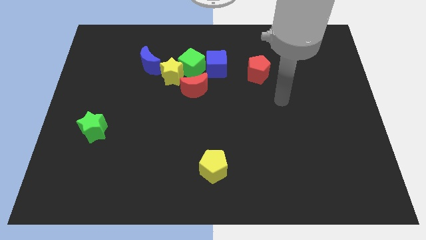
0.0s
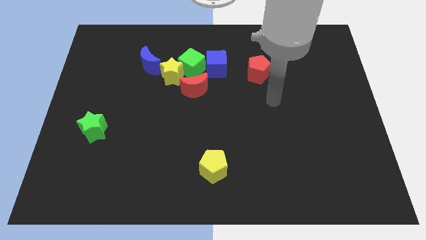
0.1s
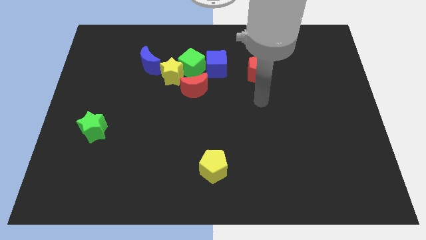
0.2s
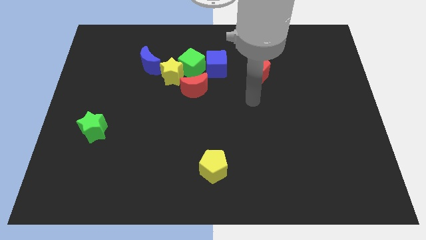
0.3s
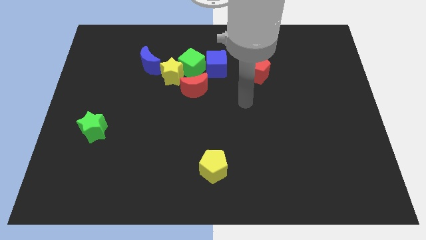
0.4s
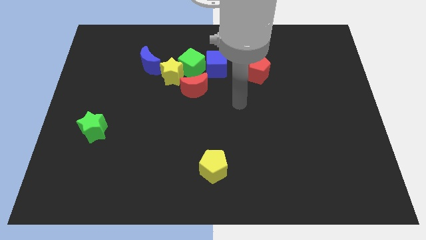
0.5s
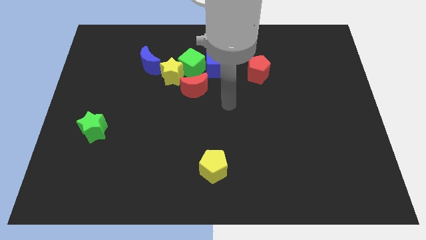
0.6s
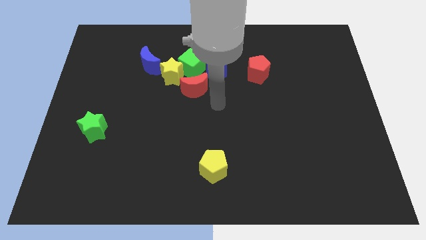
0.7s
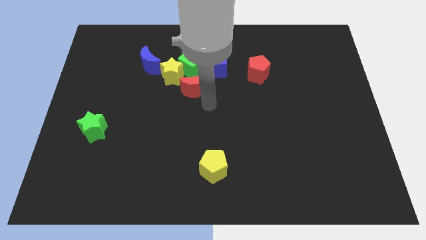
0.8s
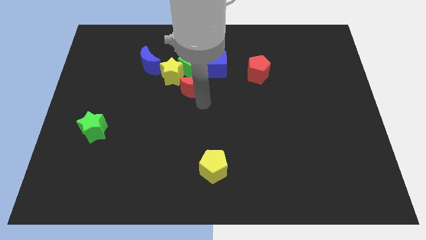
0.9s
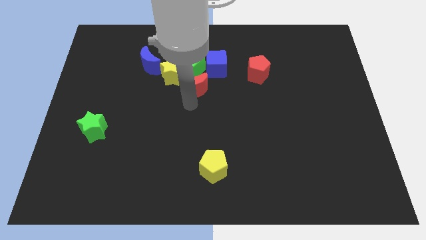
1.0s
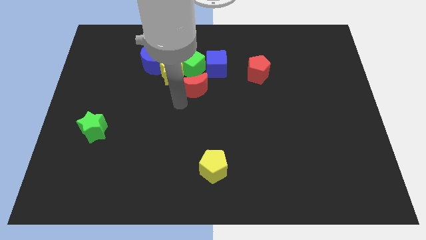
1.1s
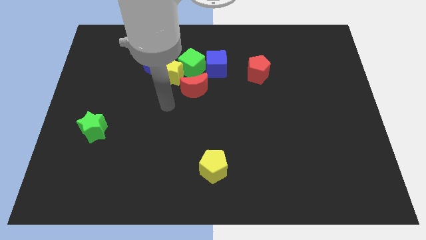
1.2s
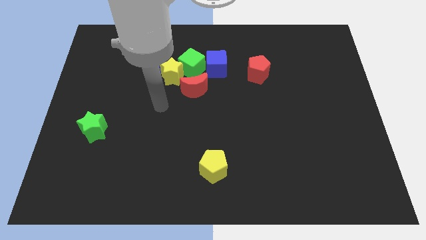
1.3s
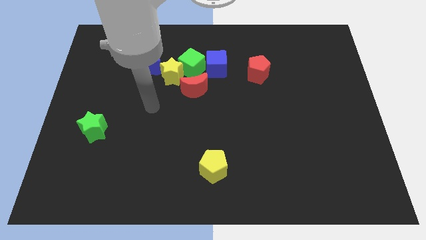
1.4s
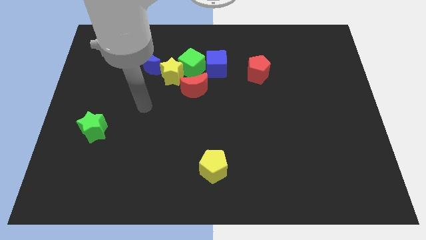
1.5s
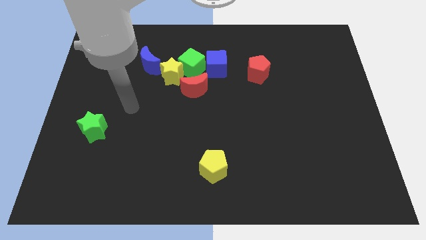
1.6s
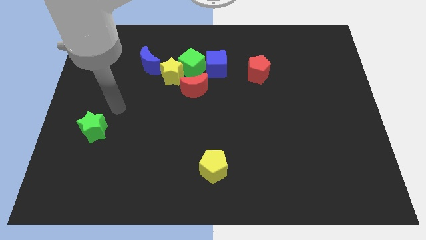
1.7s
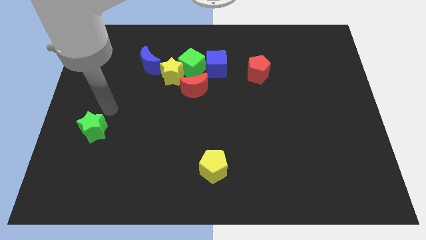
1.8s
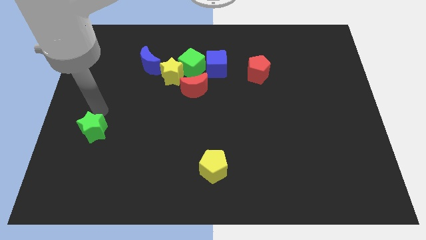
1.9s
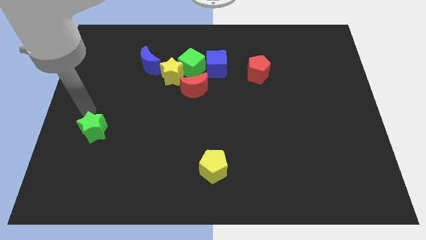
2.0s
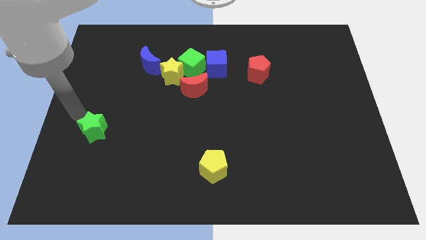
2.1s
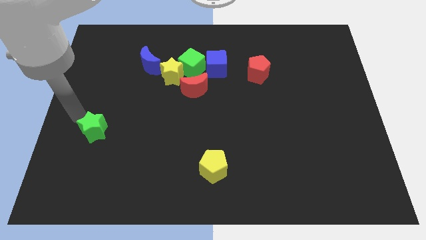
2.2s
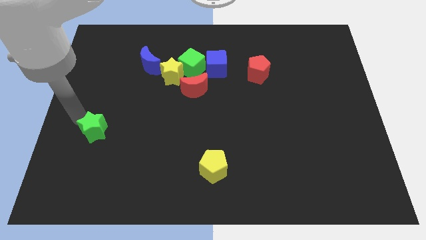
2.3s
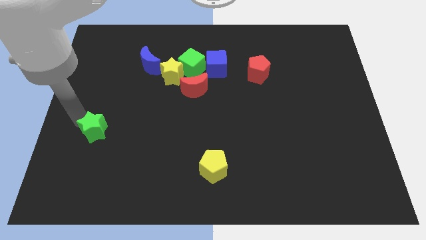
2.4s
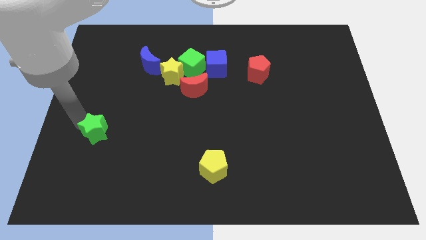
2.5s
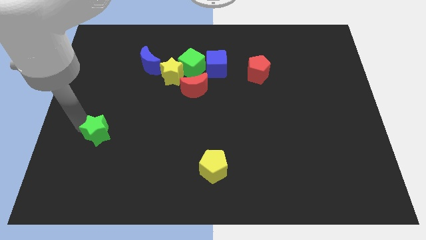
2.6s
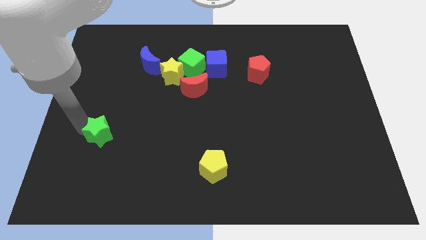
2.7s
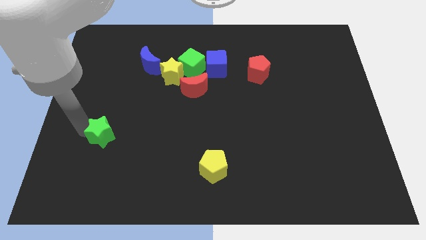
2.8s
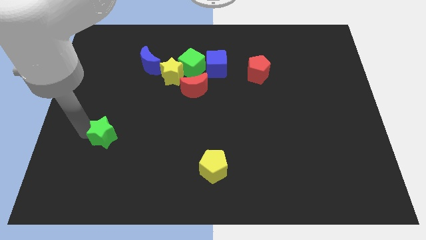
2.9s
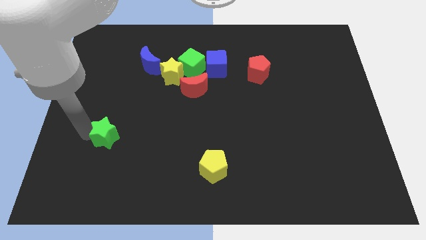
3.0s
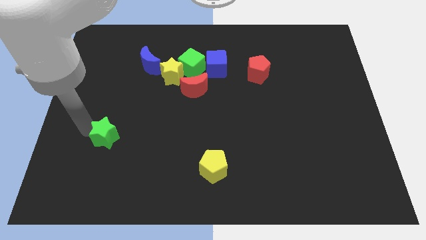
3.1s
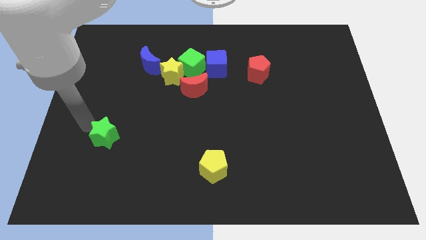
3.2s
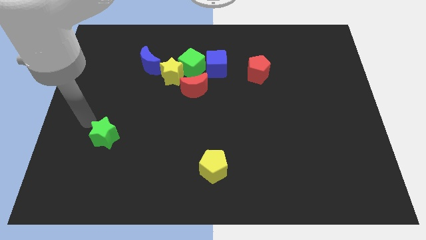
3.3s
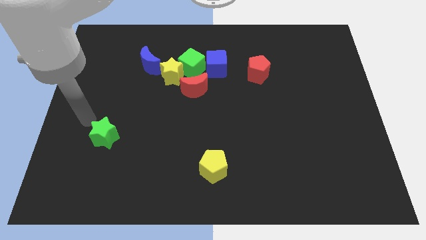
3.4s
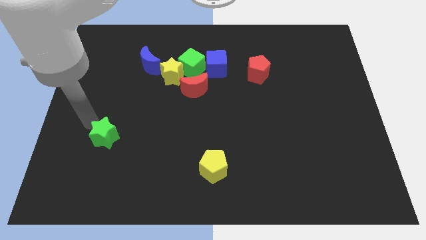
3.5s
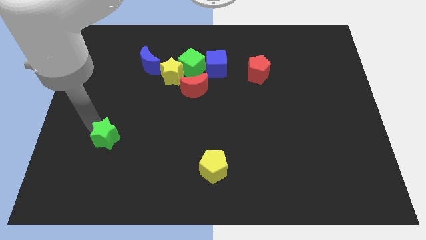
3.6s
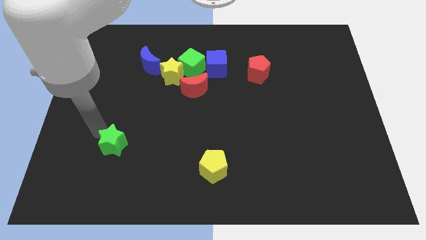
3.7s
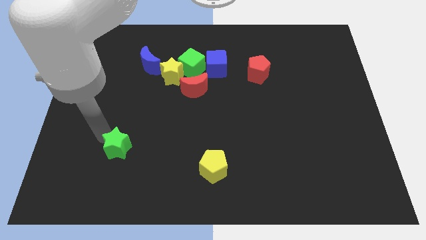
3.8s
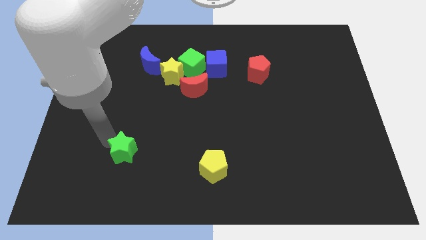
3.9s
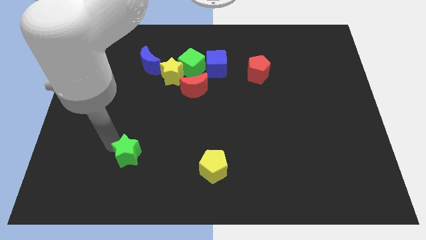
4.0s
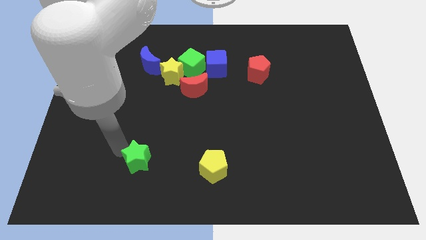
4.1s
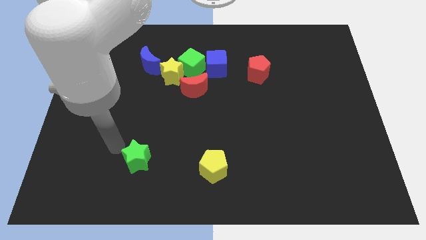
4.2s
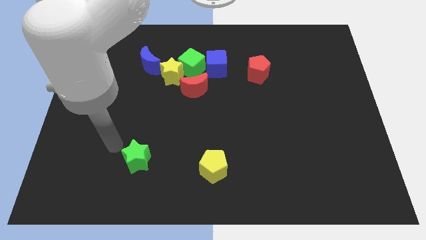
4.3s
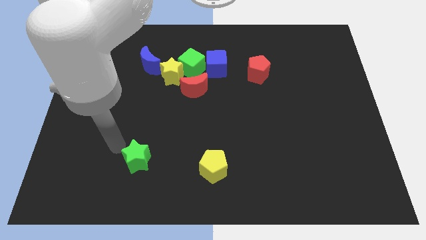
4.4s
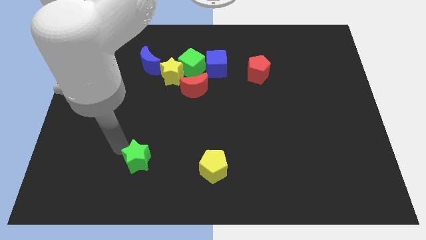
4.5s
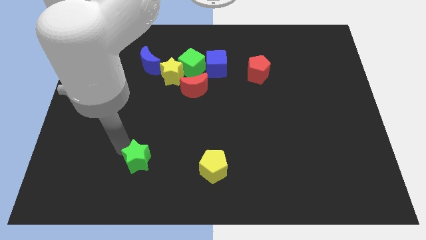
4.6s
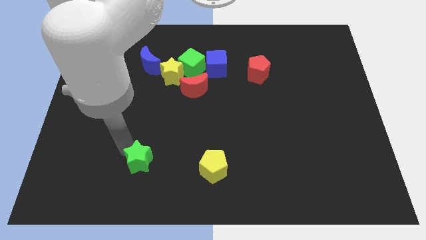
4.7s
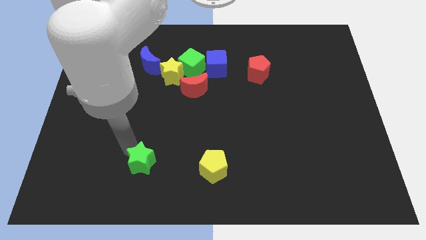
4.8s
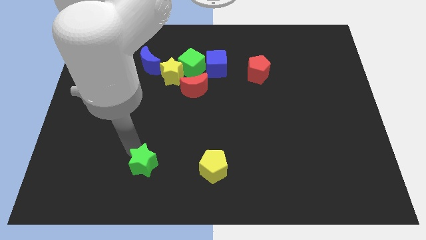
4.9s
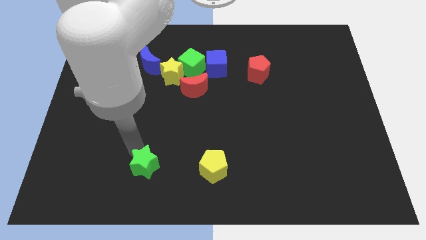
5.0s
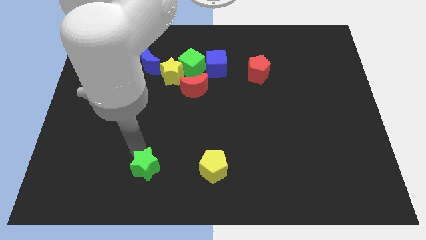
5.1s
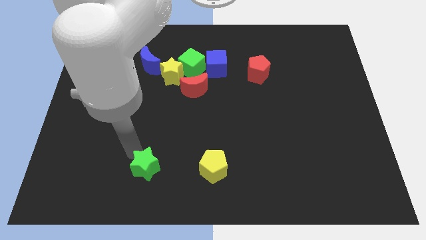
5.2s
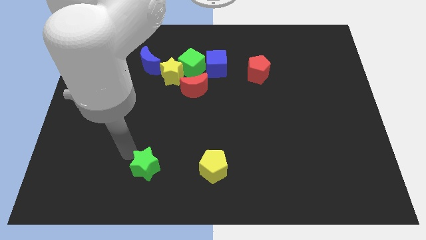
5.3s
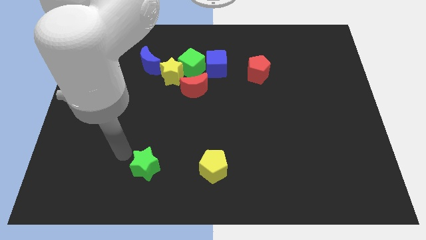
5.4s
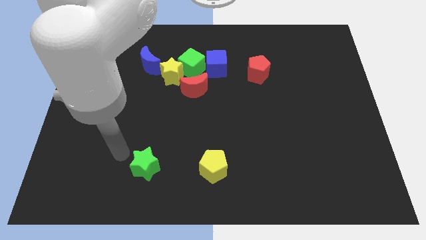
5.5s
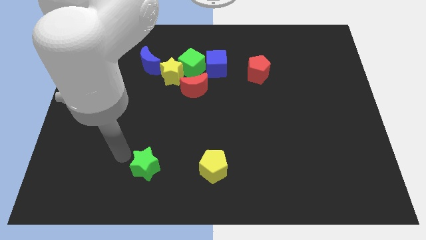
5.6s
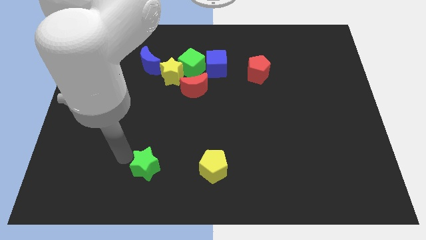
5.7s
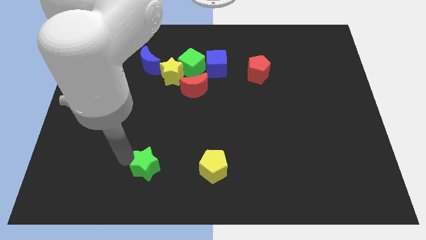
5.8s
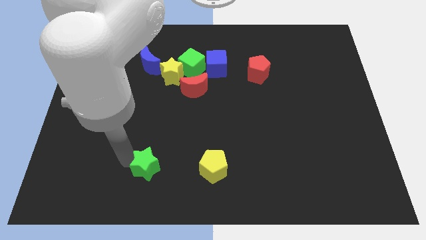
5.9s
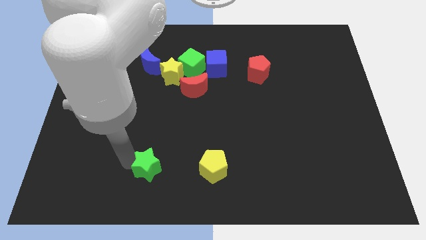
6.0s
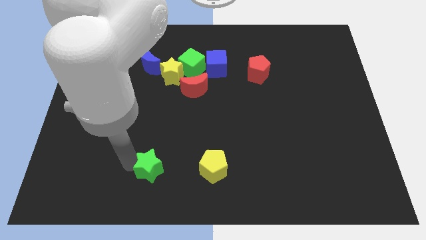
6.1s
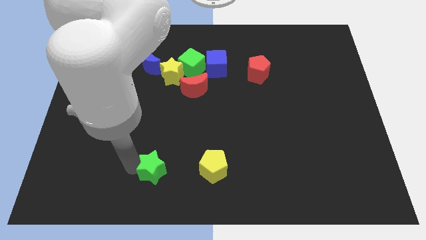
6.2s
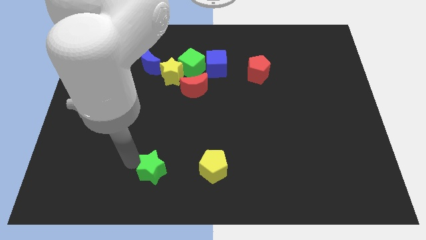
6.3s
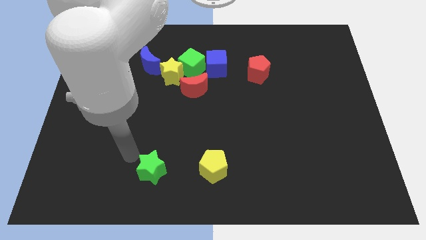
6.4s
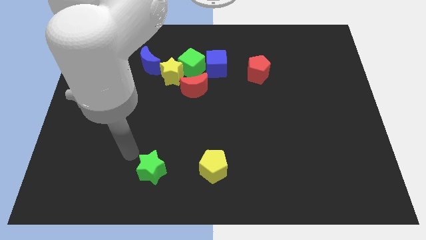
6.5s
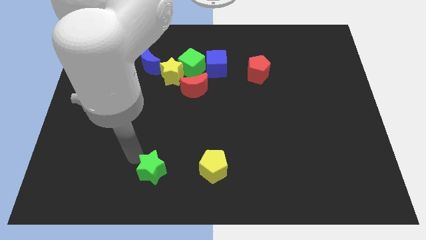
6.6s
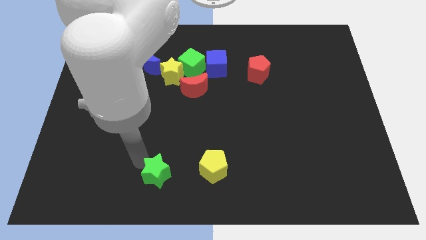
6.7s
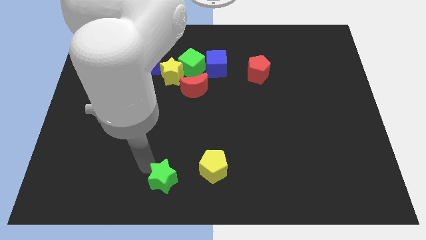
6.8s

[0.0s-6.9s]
put the green star to the bottom side

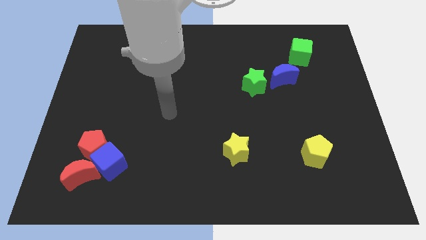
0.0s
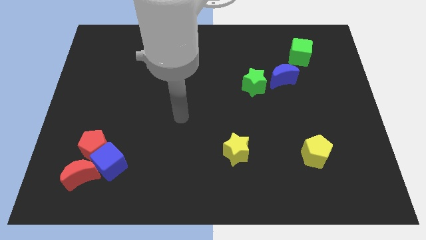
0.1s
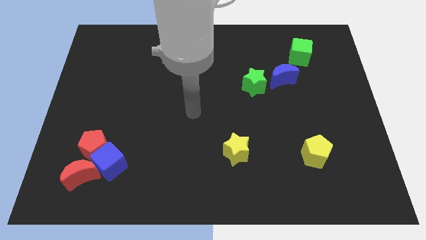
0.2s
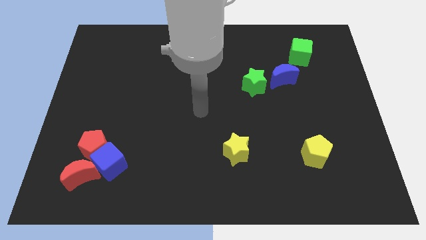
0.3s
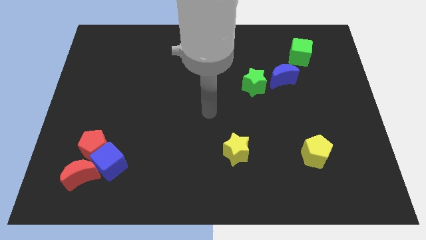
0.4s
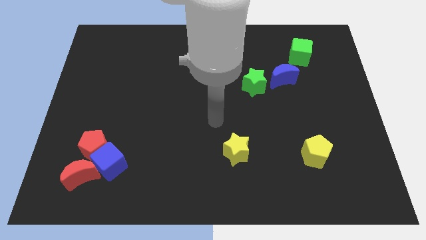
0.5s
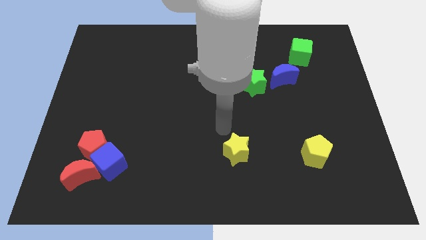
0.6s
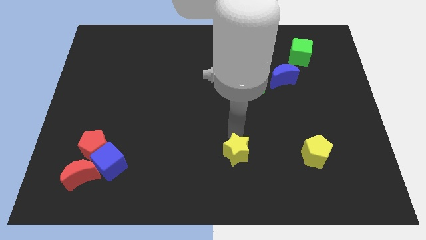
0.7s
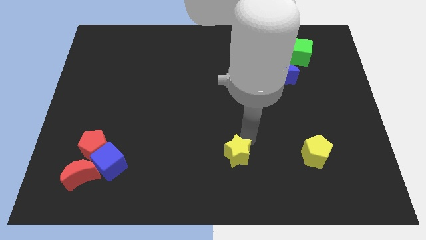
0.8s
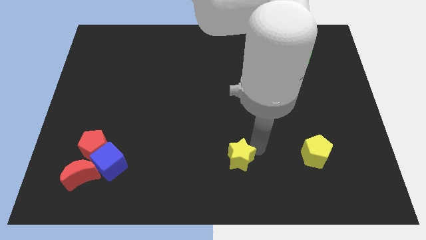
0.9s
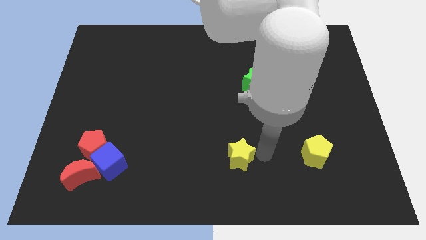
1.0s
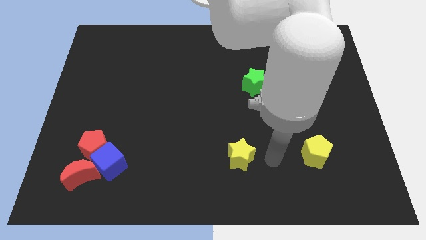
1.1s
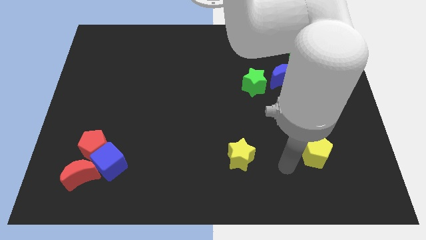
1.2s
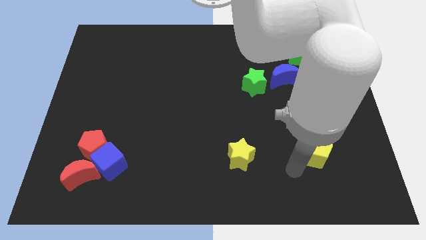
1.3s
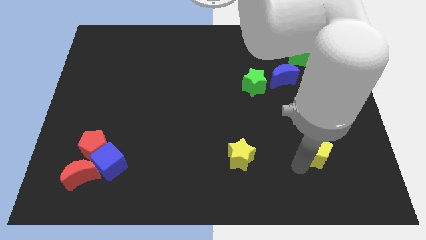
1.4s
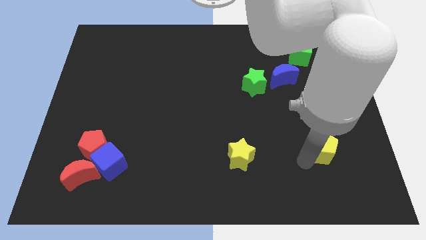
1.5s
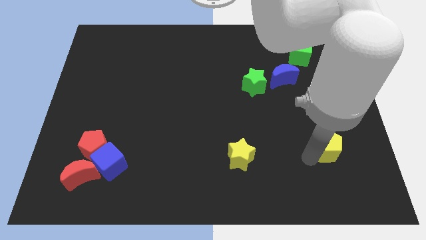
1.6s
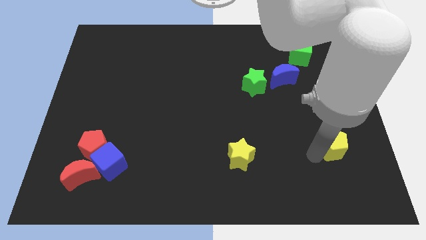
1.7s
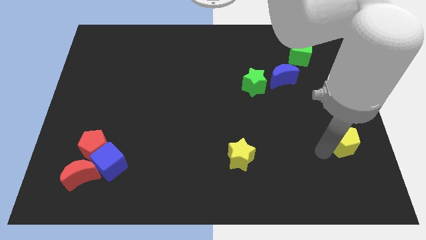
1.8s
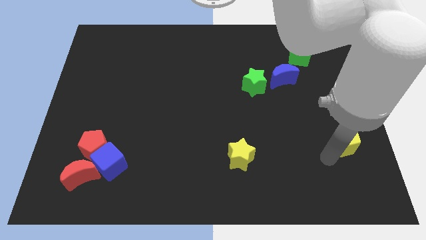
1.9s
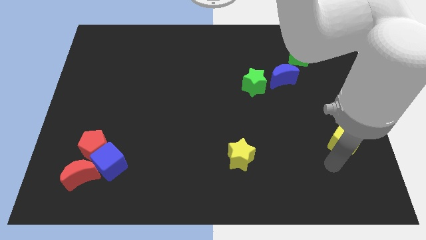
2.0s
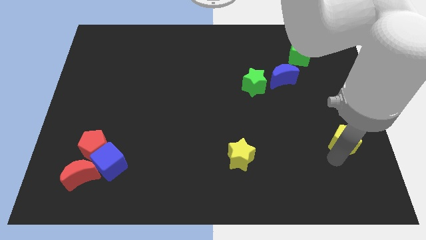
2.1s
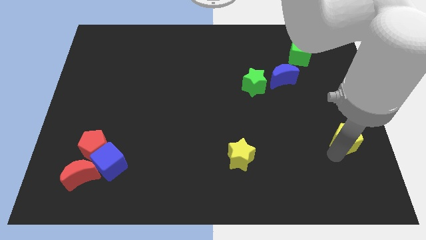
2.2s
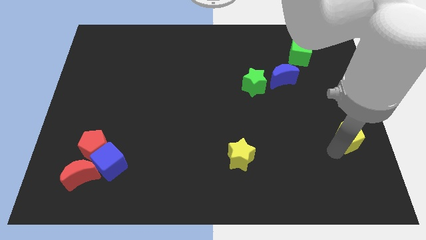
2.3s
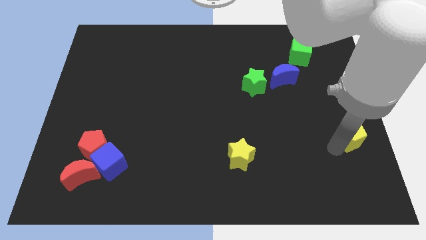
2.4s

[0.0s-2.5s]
move the yellow pentagon to the right side of the board
